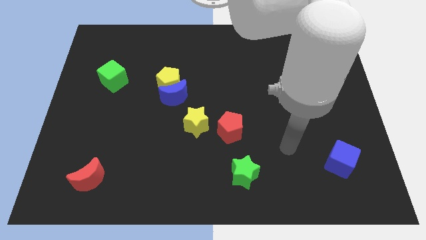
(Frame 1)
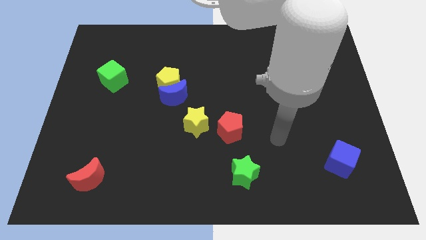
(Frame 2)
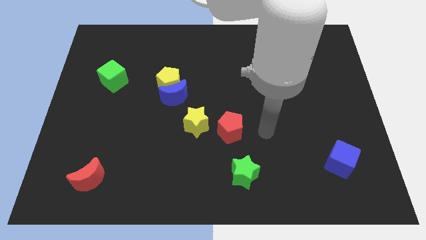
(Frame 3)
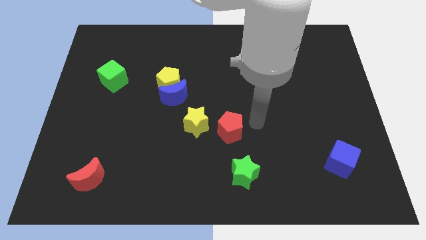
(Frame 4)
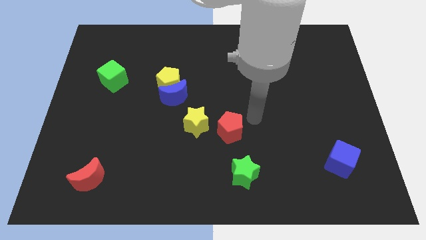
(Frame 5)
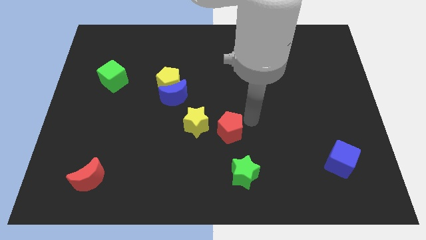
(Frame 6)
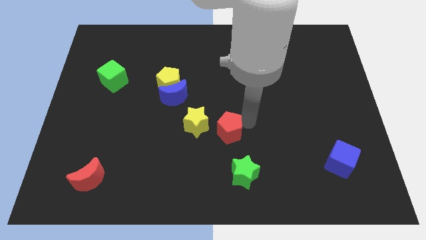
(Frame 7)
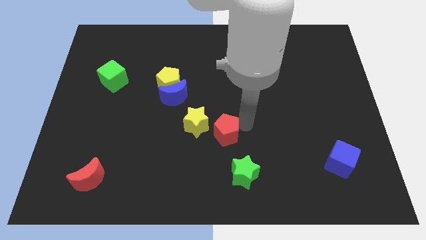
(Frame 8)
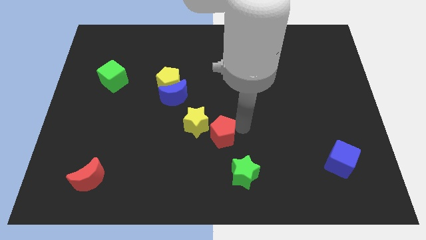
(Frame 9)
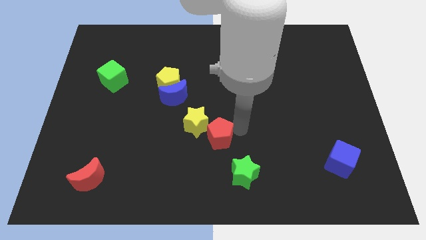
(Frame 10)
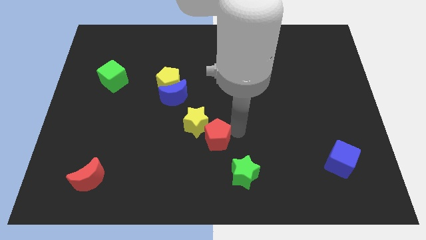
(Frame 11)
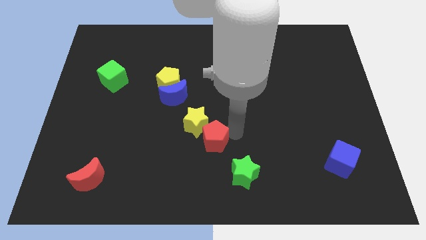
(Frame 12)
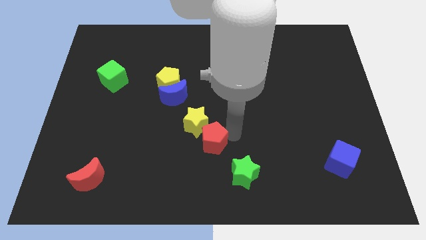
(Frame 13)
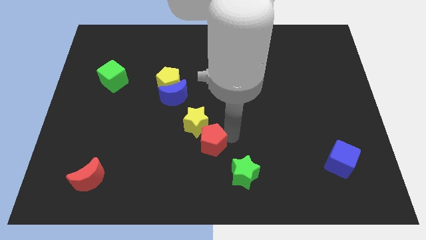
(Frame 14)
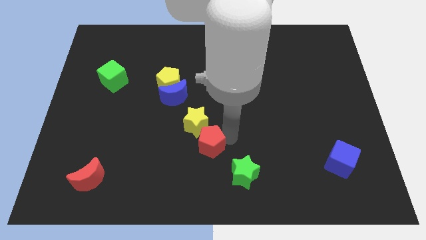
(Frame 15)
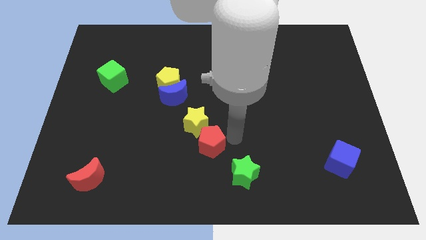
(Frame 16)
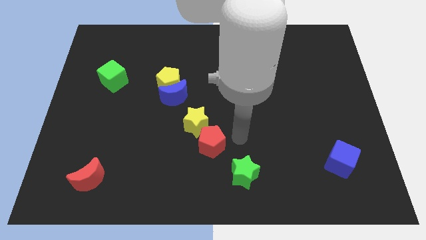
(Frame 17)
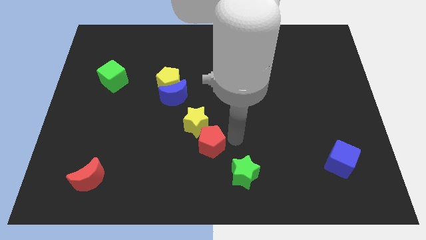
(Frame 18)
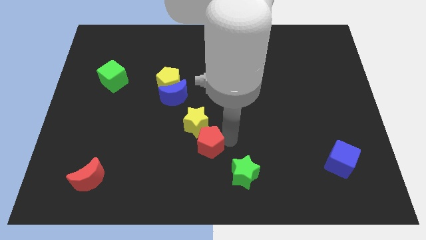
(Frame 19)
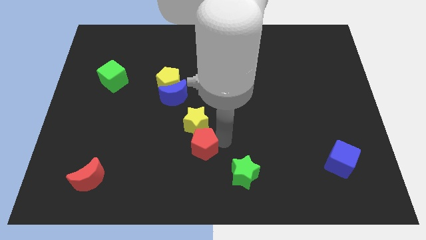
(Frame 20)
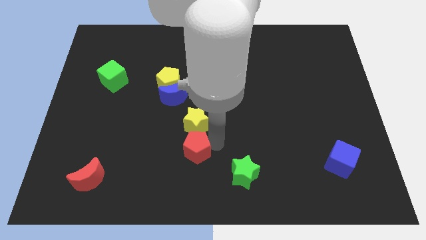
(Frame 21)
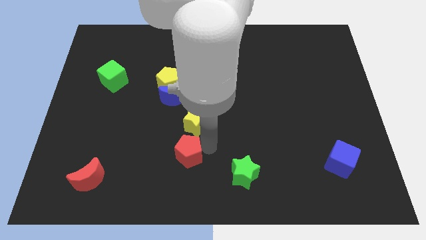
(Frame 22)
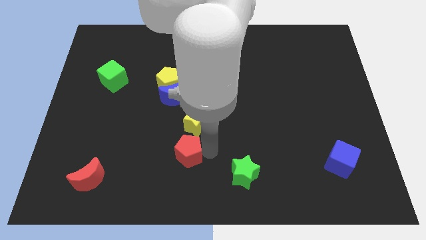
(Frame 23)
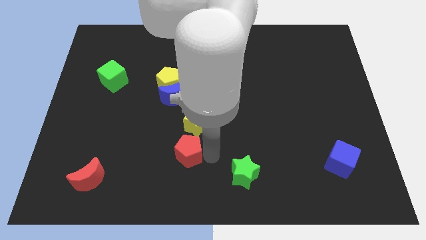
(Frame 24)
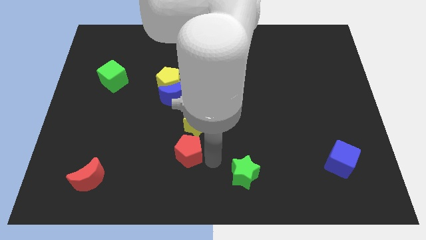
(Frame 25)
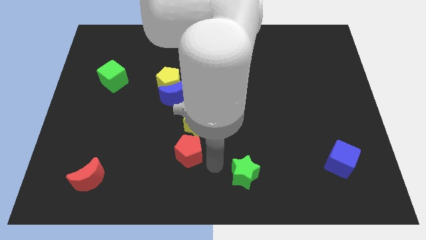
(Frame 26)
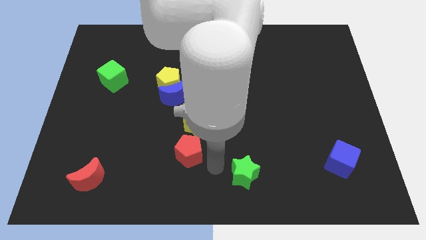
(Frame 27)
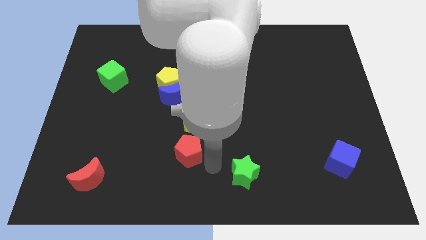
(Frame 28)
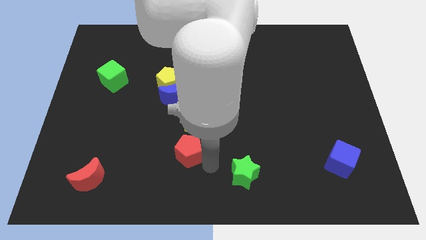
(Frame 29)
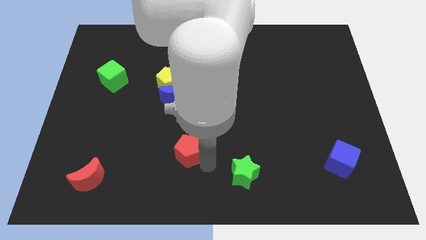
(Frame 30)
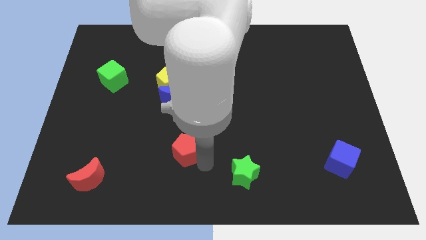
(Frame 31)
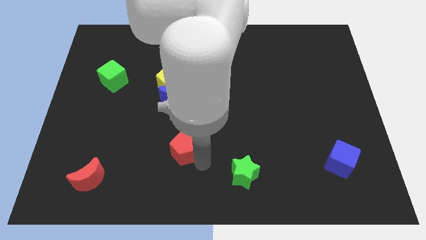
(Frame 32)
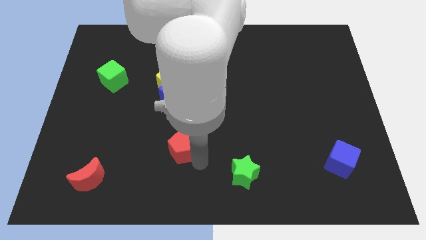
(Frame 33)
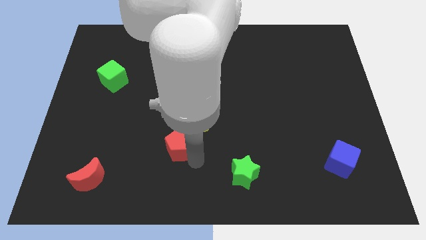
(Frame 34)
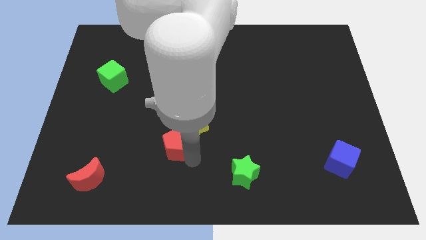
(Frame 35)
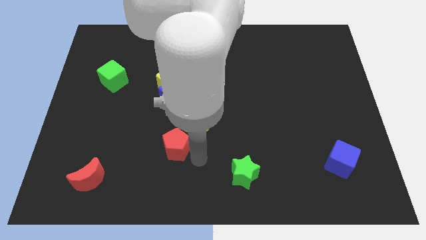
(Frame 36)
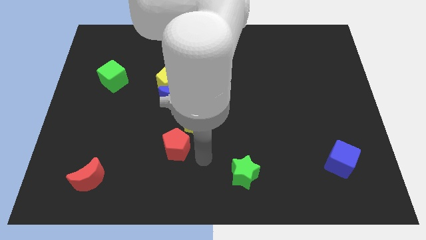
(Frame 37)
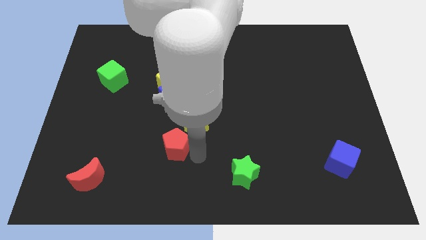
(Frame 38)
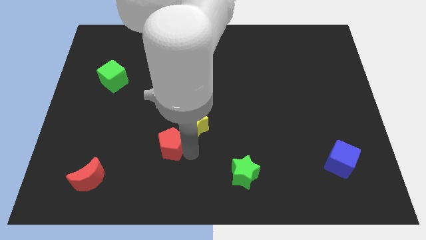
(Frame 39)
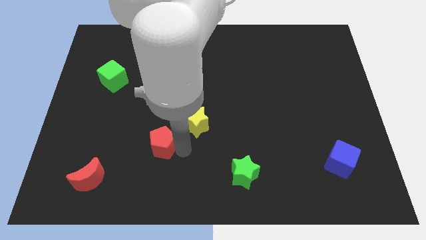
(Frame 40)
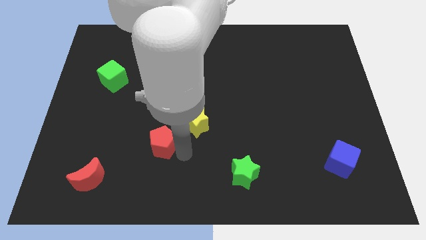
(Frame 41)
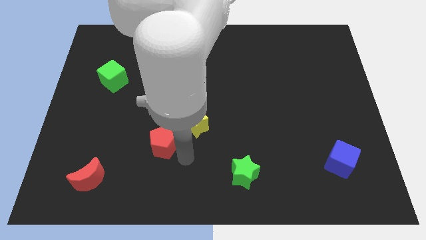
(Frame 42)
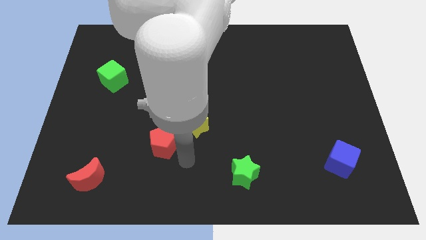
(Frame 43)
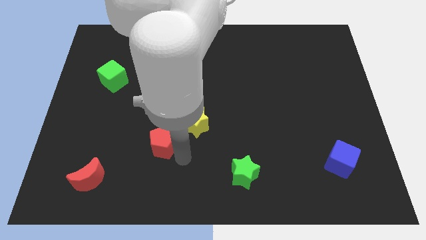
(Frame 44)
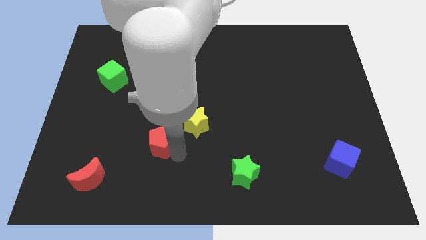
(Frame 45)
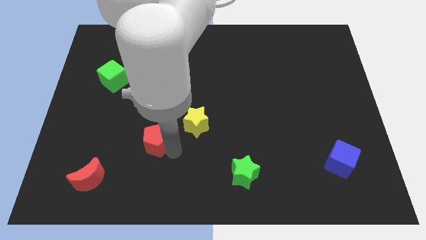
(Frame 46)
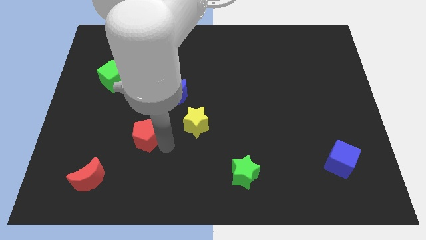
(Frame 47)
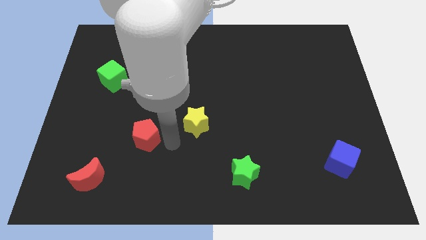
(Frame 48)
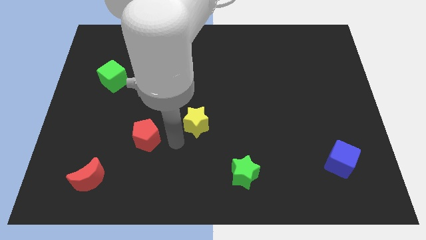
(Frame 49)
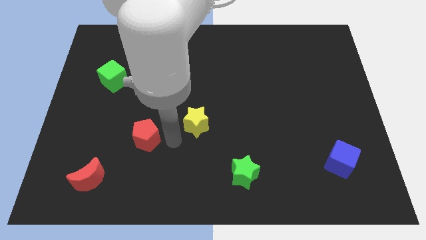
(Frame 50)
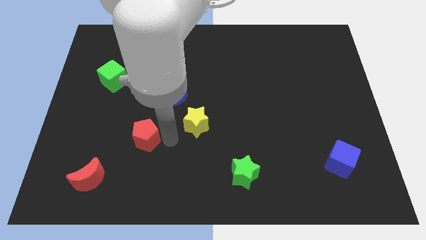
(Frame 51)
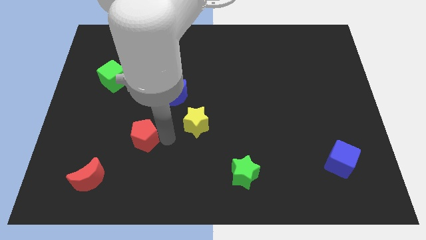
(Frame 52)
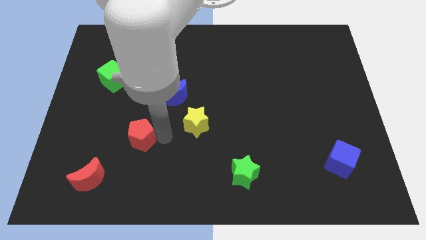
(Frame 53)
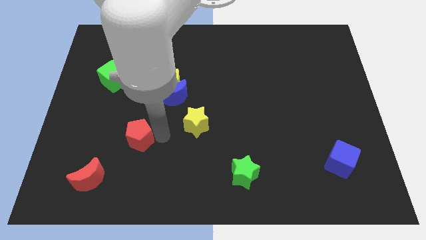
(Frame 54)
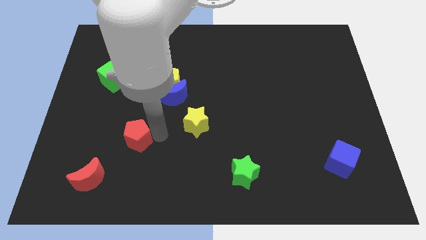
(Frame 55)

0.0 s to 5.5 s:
slide the red pentagon left

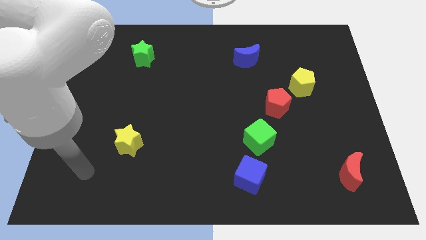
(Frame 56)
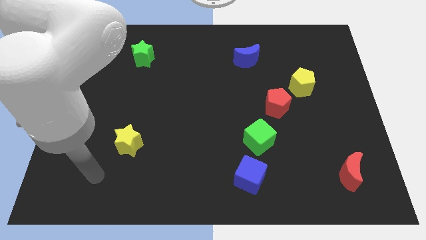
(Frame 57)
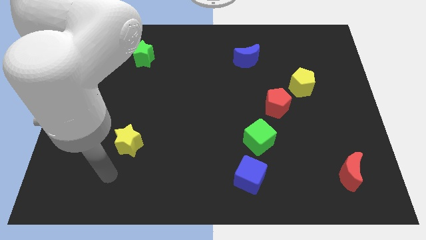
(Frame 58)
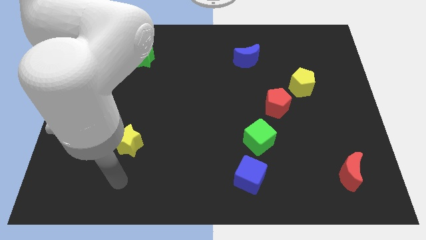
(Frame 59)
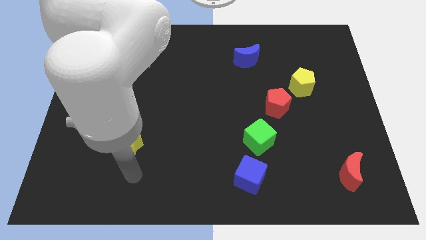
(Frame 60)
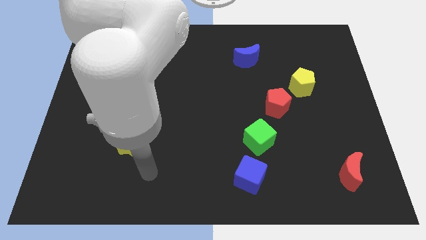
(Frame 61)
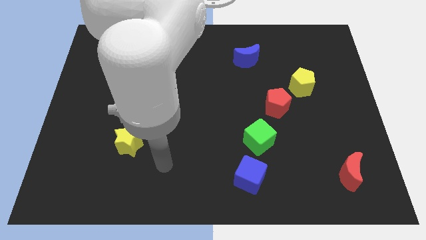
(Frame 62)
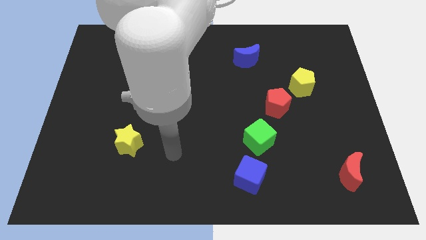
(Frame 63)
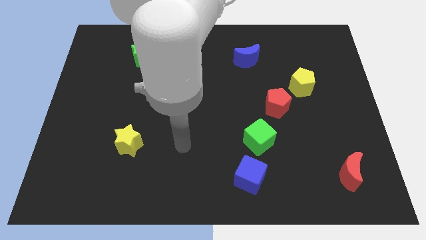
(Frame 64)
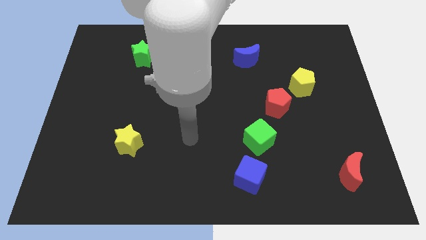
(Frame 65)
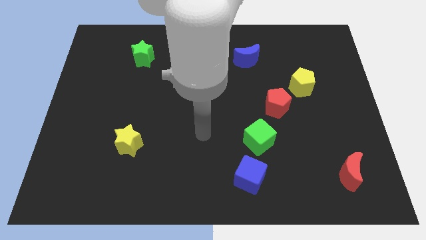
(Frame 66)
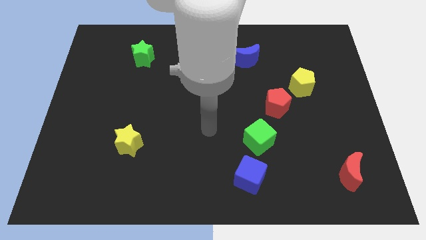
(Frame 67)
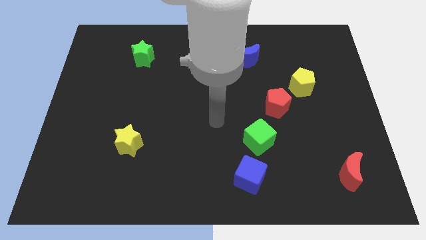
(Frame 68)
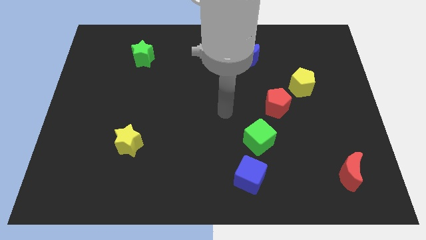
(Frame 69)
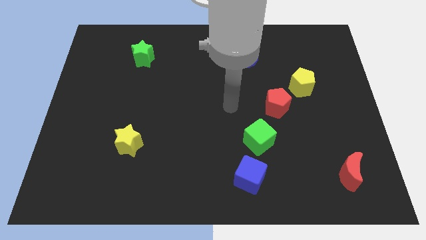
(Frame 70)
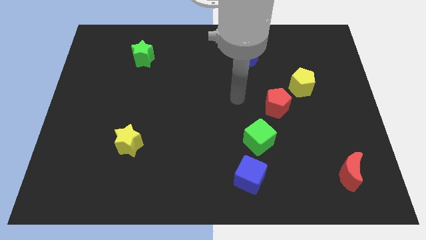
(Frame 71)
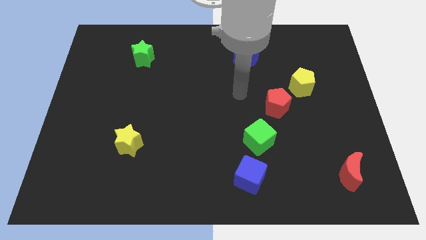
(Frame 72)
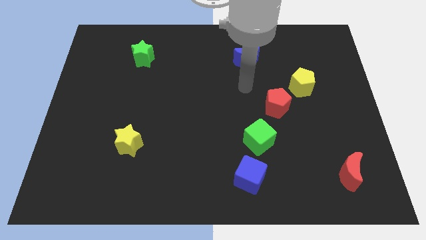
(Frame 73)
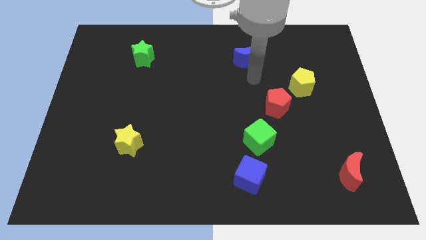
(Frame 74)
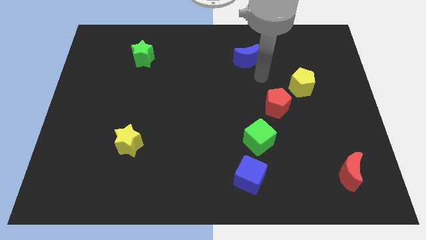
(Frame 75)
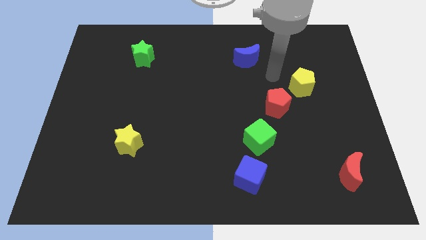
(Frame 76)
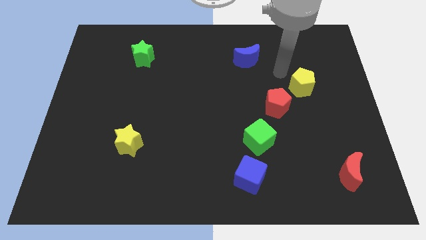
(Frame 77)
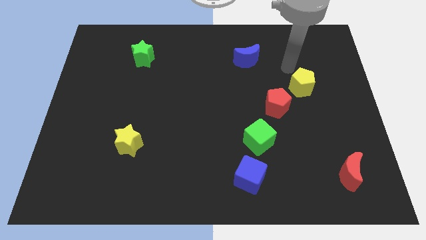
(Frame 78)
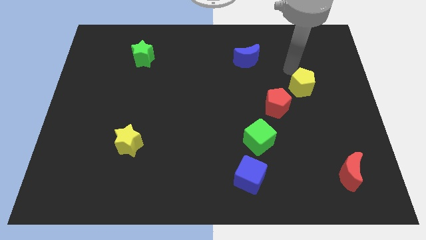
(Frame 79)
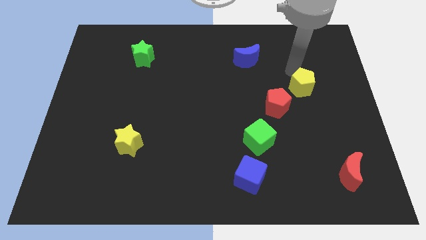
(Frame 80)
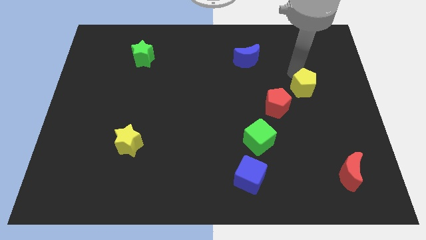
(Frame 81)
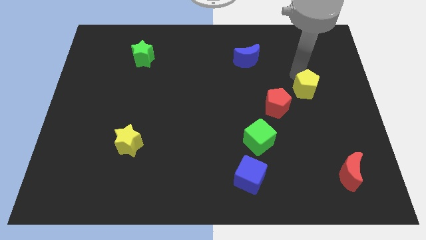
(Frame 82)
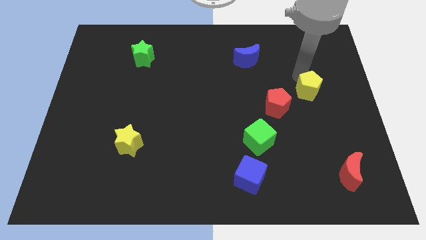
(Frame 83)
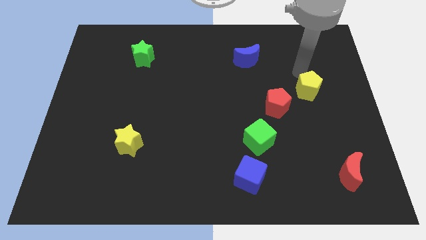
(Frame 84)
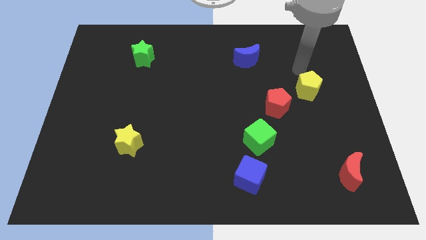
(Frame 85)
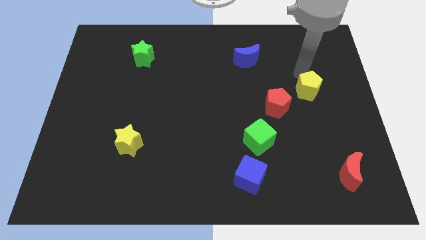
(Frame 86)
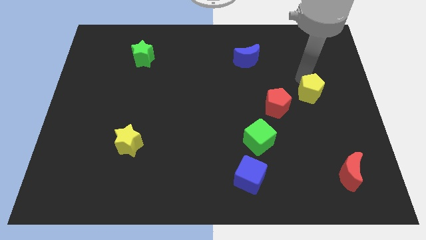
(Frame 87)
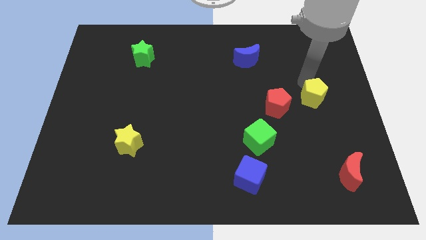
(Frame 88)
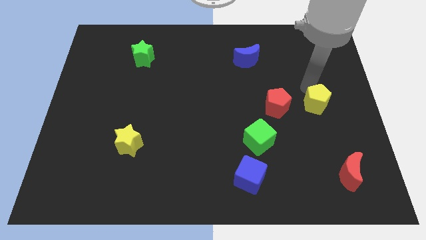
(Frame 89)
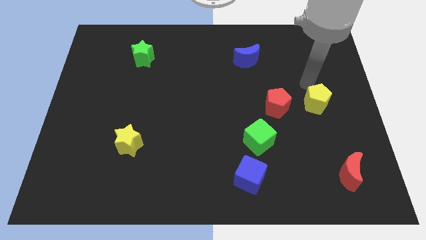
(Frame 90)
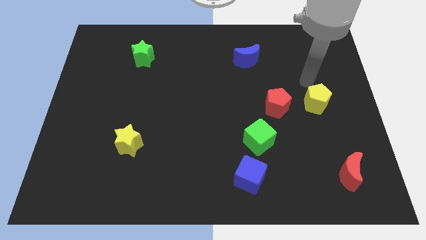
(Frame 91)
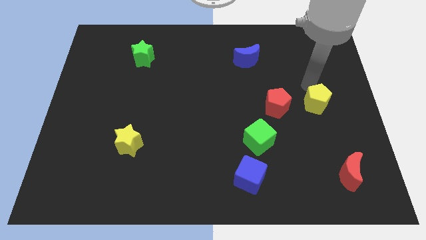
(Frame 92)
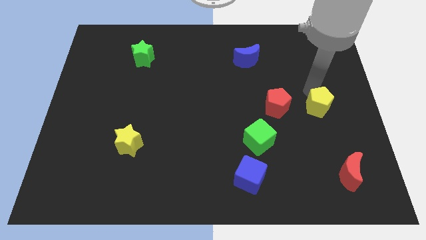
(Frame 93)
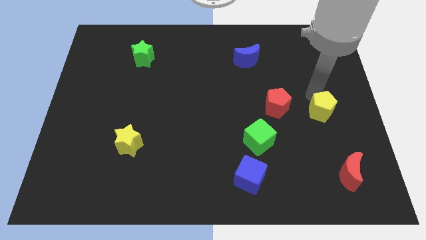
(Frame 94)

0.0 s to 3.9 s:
slightly move the yellow pentagon down
